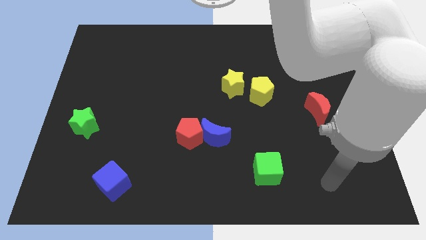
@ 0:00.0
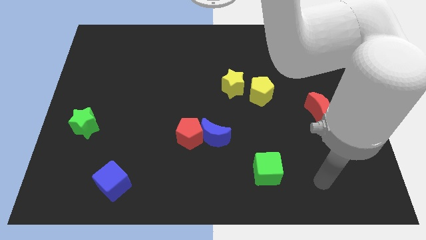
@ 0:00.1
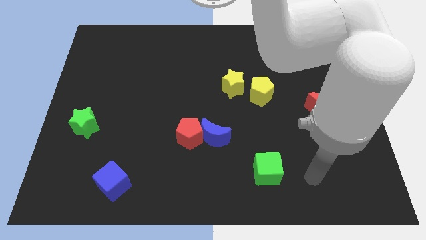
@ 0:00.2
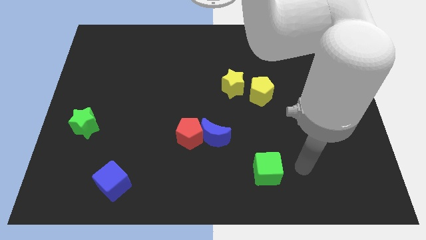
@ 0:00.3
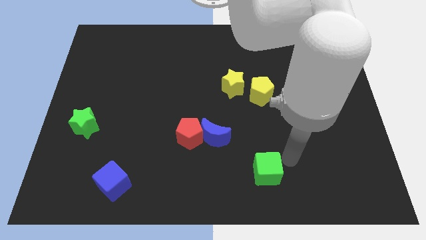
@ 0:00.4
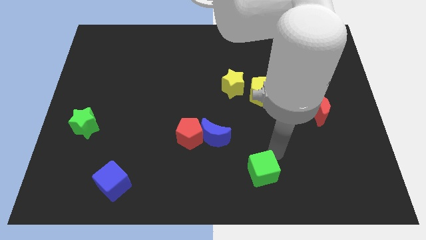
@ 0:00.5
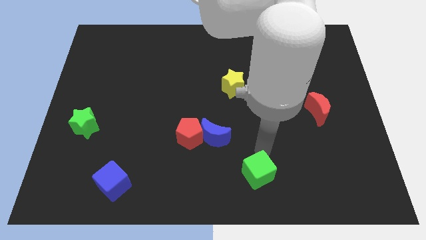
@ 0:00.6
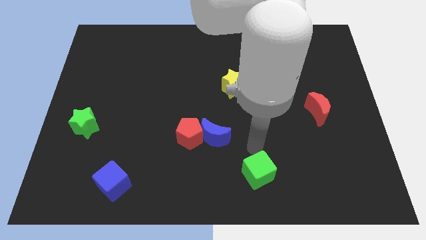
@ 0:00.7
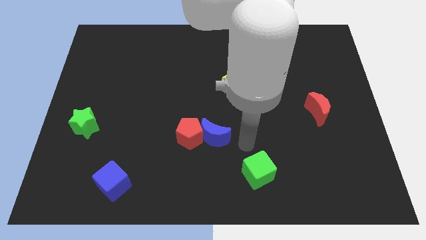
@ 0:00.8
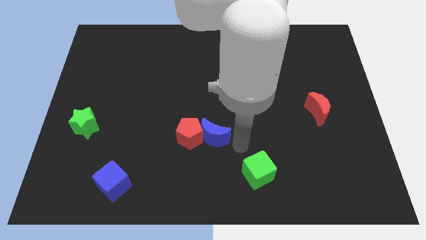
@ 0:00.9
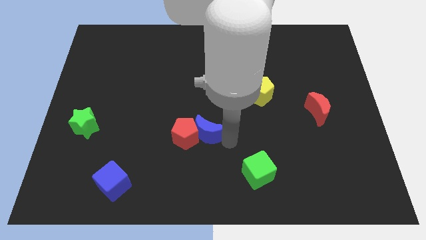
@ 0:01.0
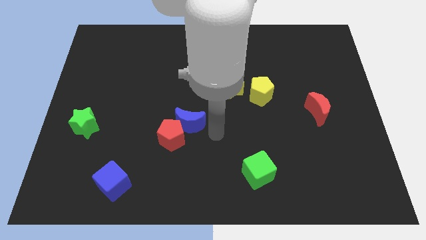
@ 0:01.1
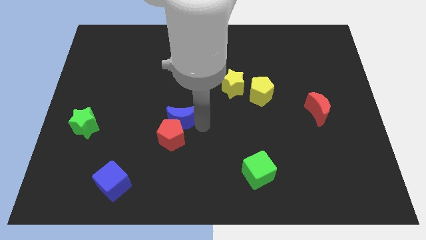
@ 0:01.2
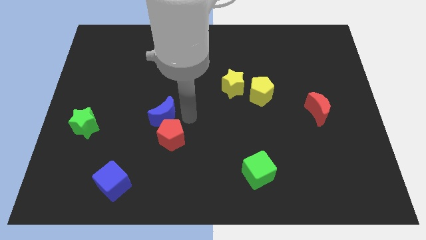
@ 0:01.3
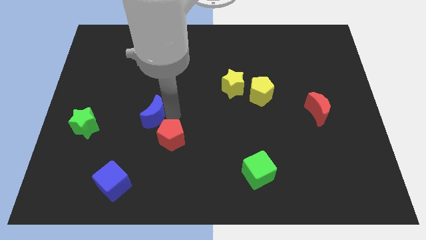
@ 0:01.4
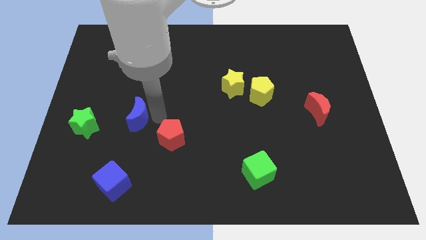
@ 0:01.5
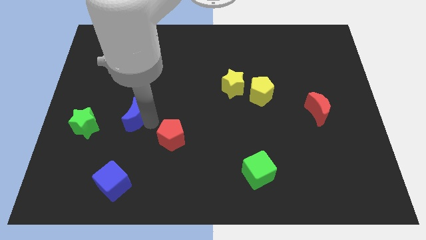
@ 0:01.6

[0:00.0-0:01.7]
pull the red pentagon apart from the blue moon

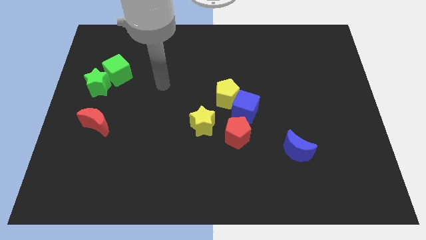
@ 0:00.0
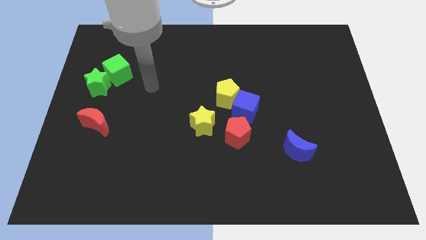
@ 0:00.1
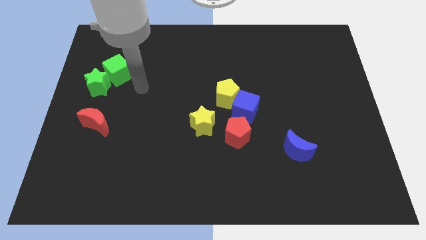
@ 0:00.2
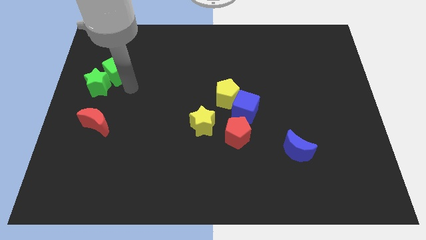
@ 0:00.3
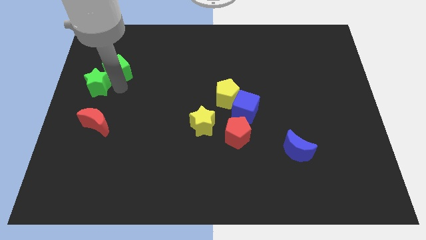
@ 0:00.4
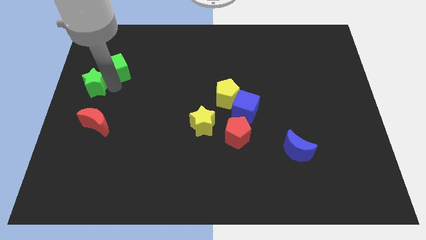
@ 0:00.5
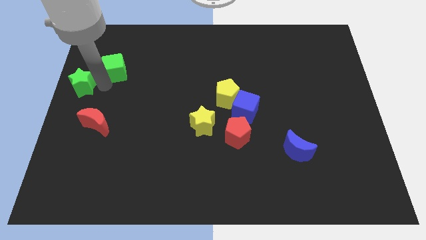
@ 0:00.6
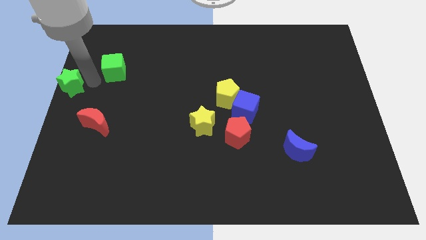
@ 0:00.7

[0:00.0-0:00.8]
separate the green cube from the green star

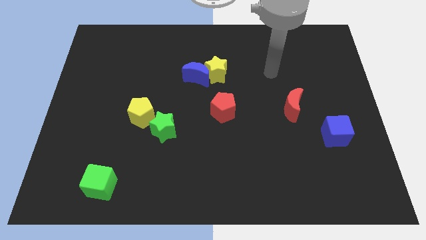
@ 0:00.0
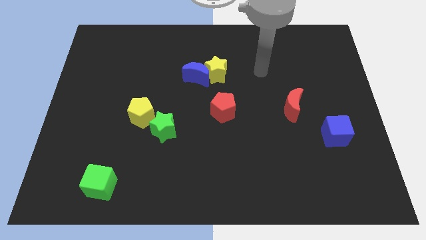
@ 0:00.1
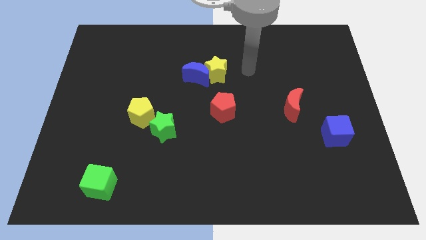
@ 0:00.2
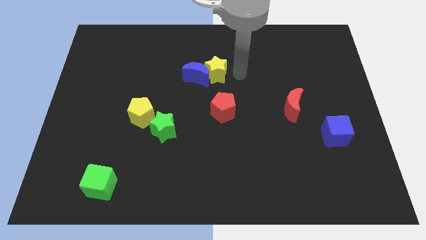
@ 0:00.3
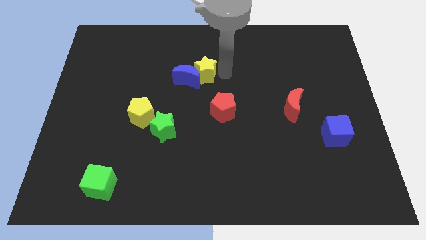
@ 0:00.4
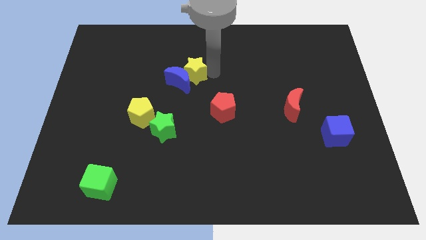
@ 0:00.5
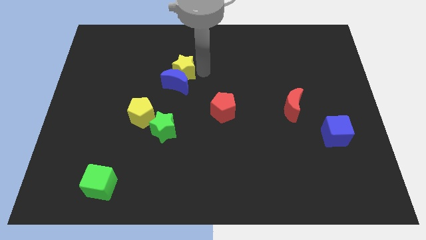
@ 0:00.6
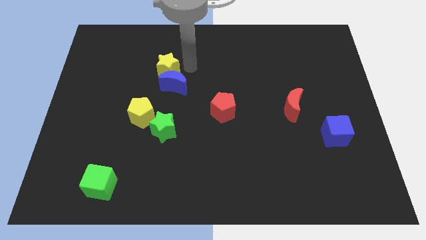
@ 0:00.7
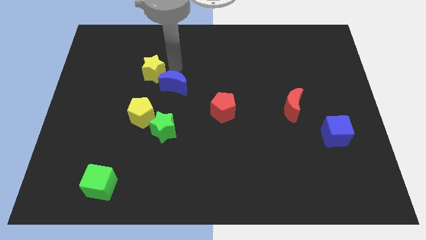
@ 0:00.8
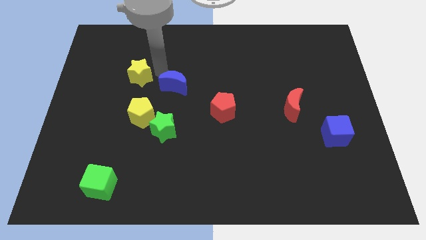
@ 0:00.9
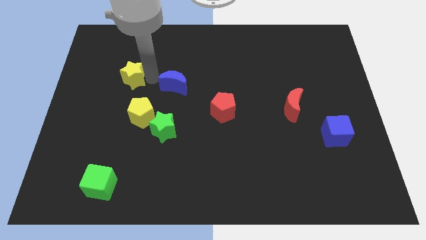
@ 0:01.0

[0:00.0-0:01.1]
move the blue moon away from the yellow star

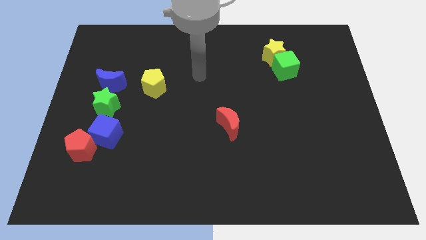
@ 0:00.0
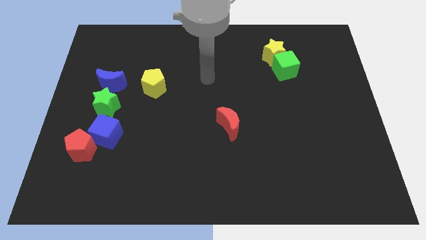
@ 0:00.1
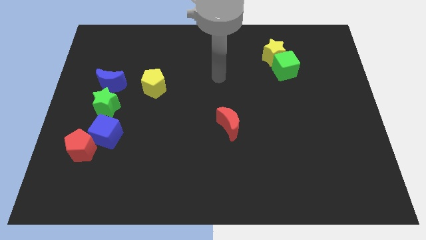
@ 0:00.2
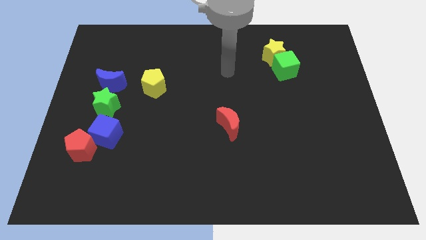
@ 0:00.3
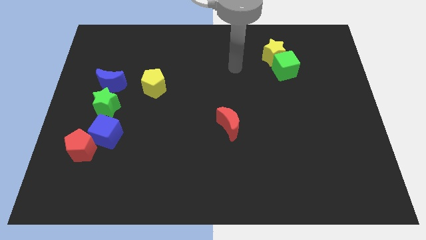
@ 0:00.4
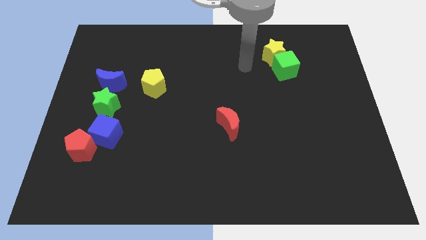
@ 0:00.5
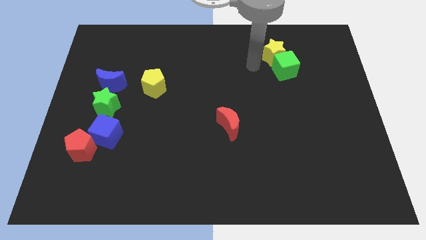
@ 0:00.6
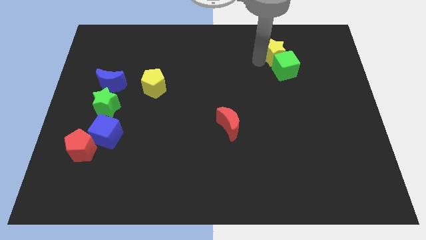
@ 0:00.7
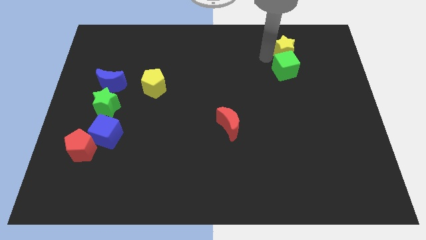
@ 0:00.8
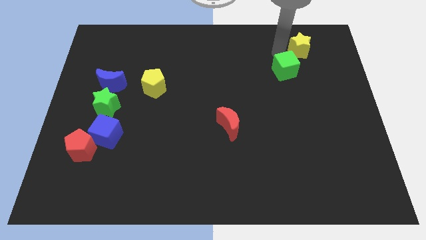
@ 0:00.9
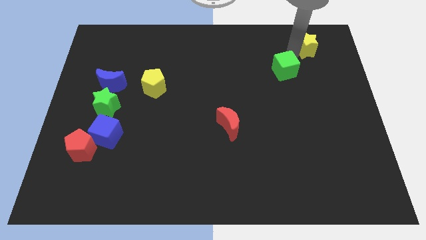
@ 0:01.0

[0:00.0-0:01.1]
pull the green cube apart from the yellow star

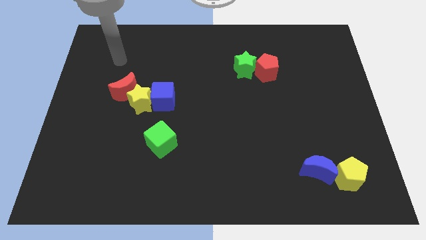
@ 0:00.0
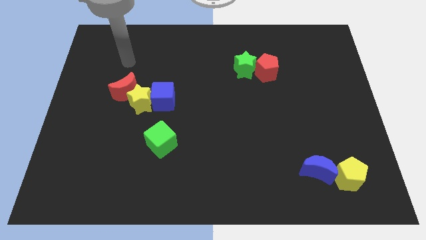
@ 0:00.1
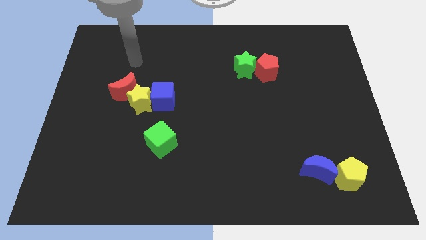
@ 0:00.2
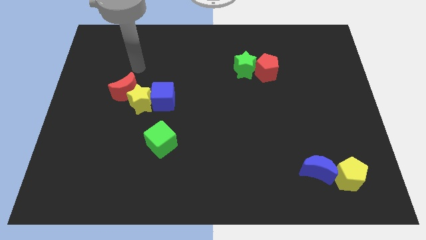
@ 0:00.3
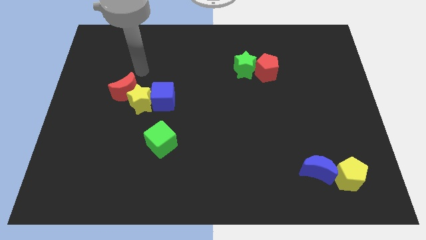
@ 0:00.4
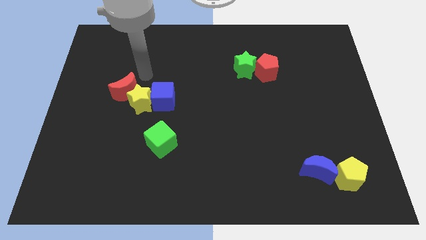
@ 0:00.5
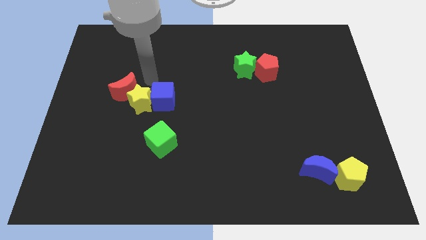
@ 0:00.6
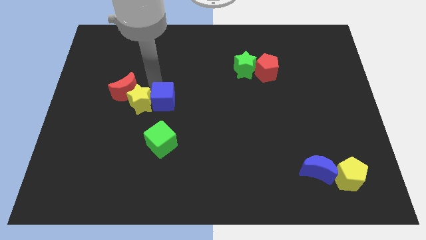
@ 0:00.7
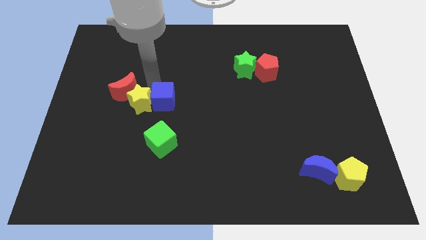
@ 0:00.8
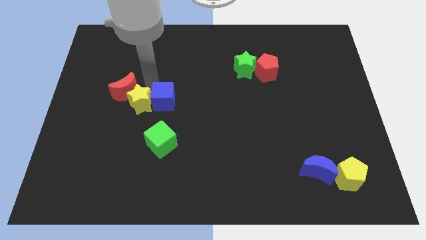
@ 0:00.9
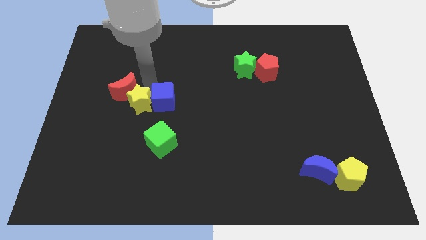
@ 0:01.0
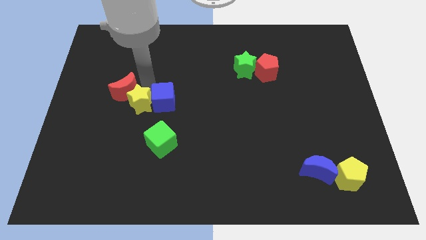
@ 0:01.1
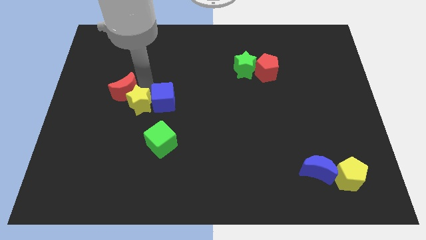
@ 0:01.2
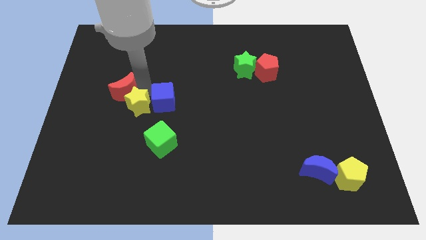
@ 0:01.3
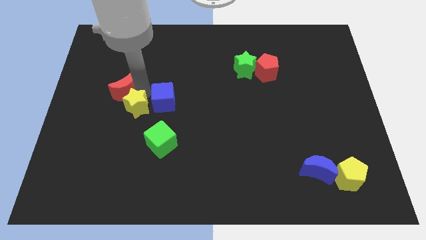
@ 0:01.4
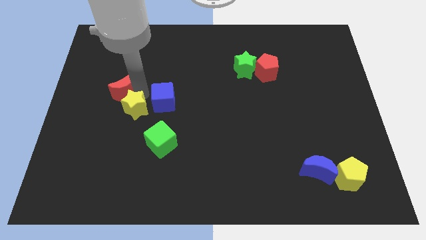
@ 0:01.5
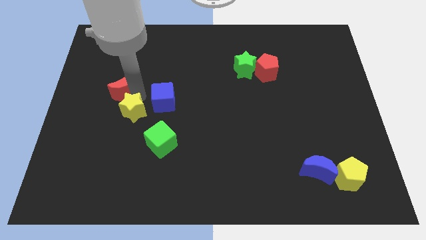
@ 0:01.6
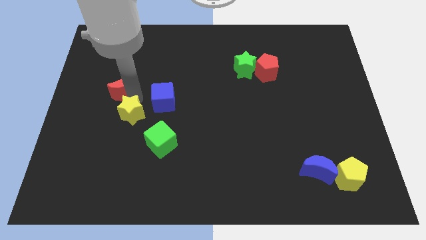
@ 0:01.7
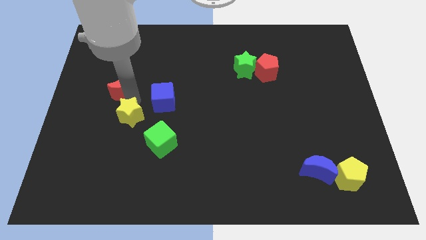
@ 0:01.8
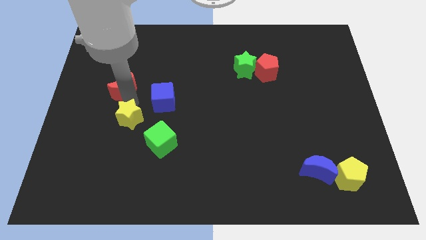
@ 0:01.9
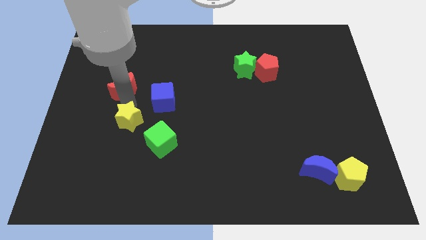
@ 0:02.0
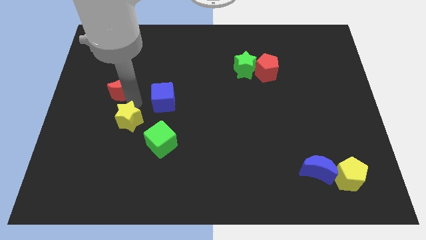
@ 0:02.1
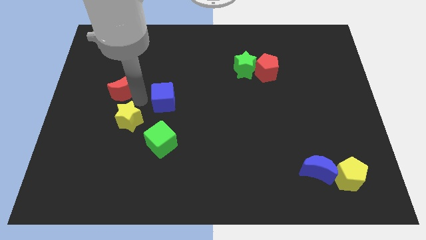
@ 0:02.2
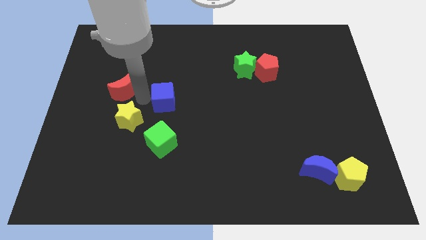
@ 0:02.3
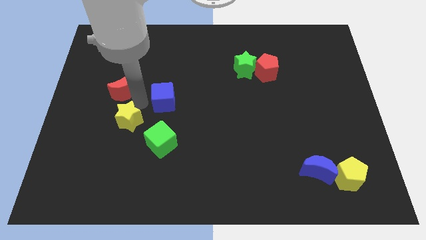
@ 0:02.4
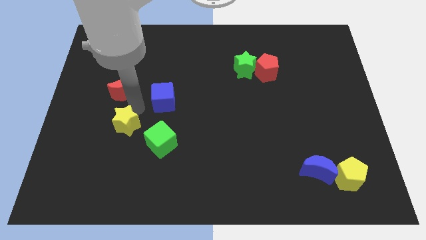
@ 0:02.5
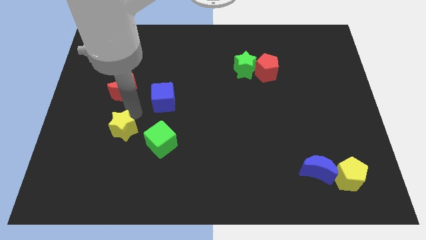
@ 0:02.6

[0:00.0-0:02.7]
move the yellow star away from the blue cube and red moon

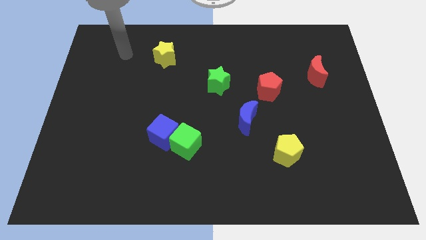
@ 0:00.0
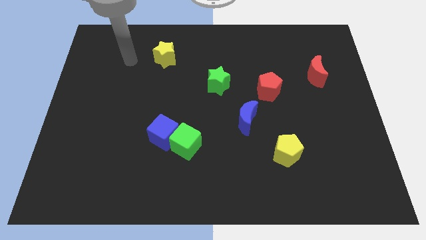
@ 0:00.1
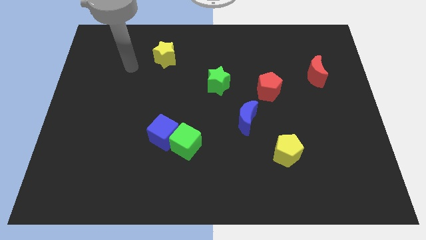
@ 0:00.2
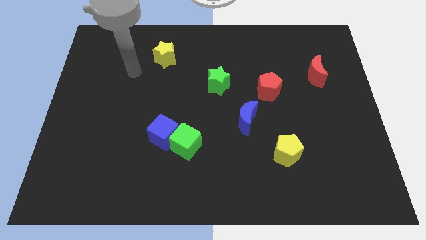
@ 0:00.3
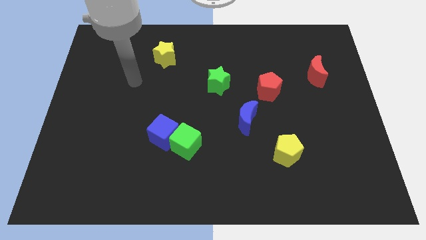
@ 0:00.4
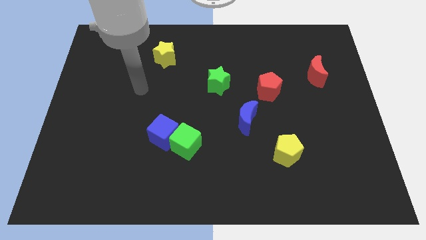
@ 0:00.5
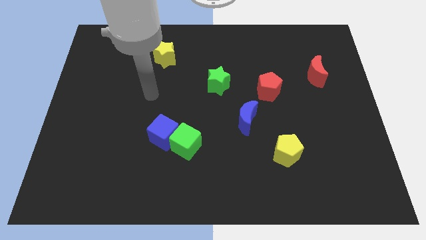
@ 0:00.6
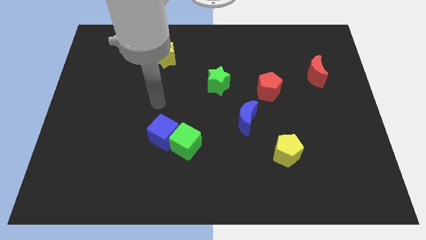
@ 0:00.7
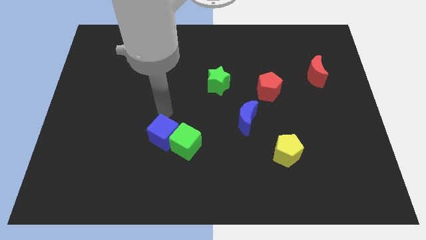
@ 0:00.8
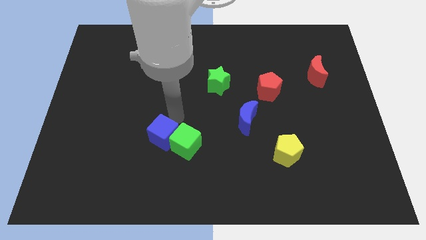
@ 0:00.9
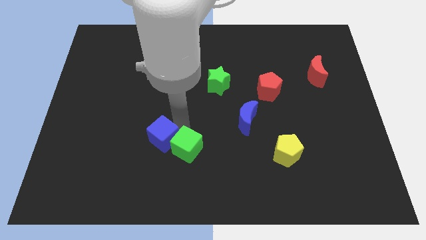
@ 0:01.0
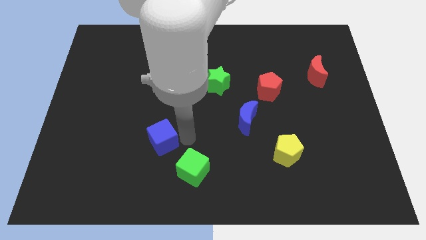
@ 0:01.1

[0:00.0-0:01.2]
separate the blue cube from the green cube

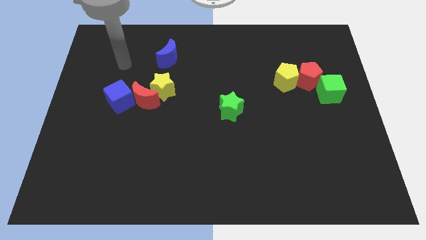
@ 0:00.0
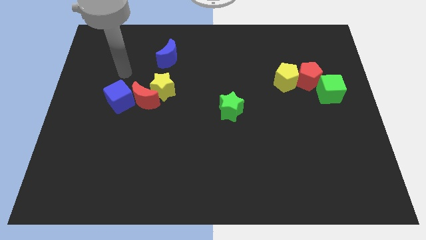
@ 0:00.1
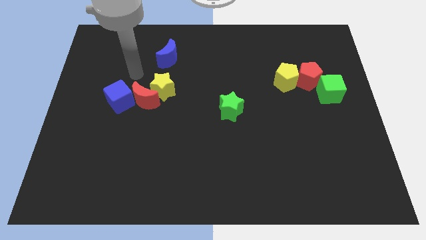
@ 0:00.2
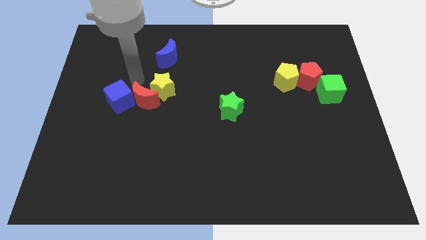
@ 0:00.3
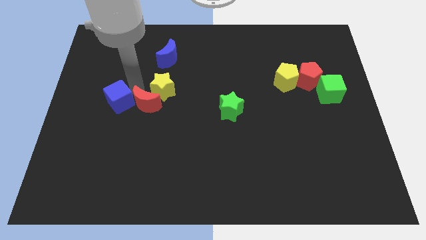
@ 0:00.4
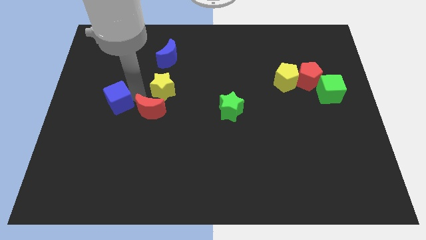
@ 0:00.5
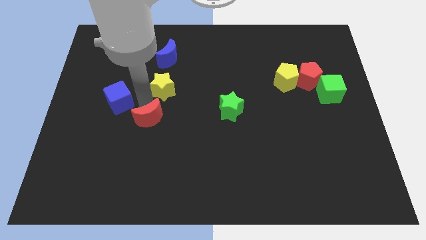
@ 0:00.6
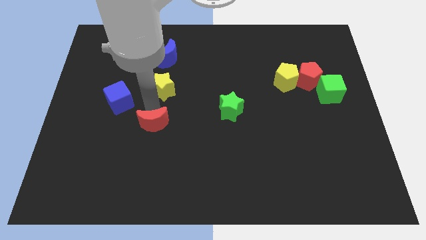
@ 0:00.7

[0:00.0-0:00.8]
separate the yellow star from the red moon
